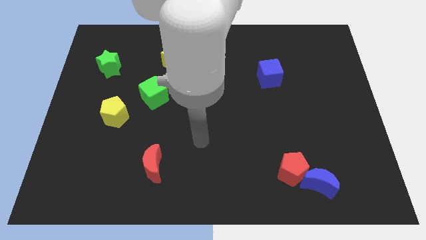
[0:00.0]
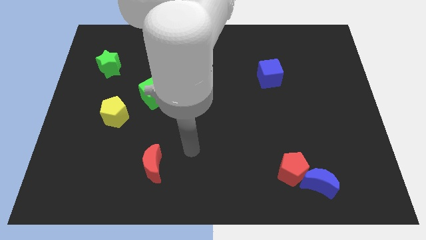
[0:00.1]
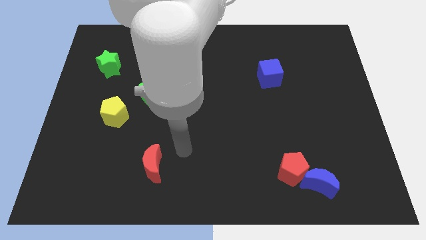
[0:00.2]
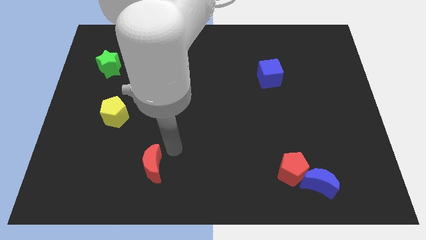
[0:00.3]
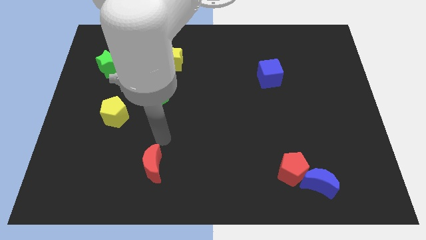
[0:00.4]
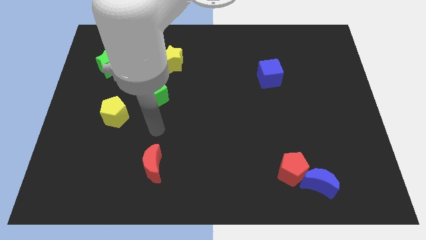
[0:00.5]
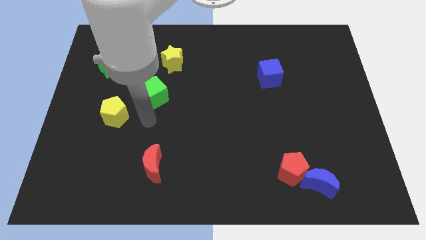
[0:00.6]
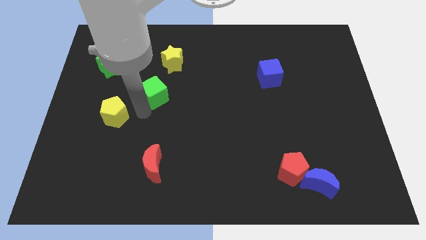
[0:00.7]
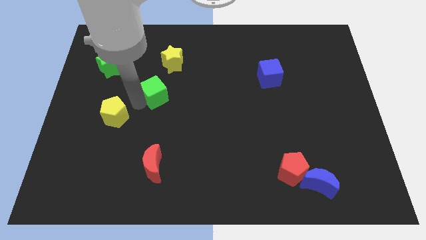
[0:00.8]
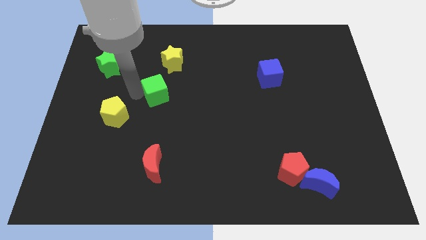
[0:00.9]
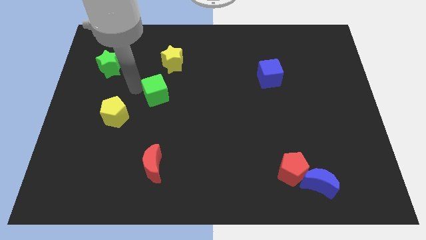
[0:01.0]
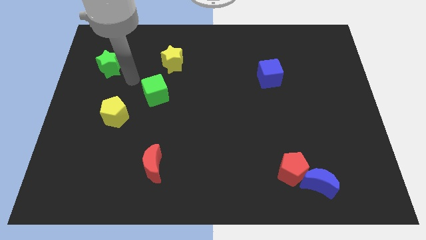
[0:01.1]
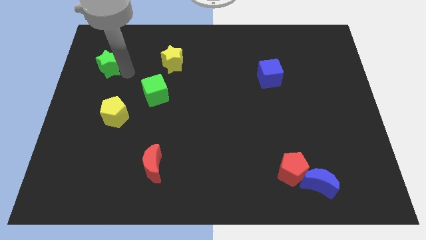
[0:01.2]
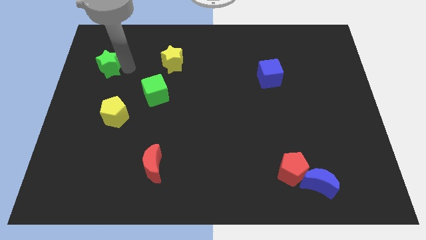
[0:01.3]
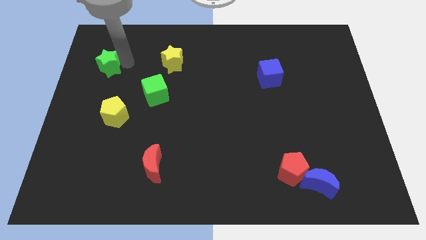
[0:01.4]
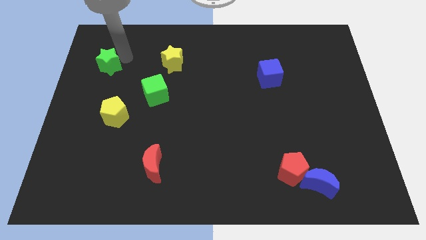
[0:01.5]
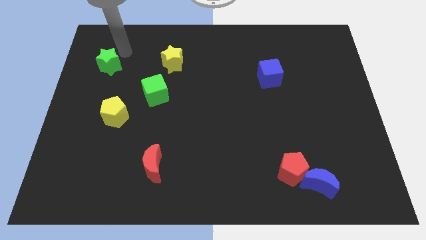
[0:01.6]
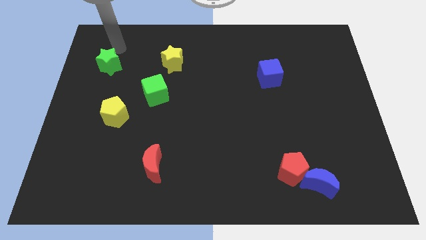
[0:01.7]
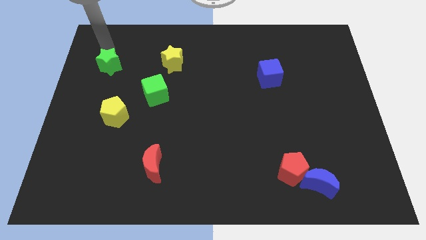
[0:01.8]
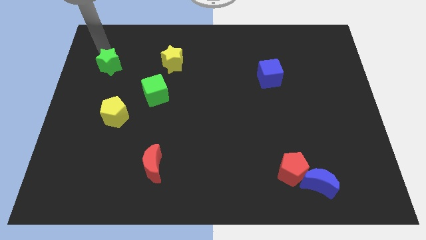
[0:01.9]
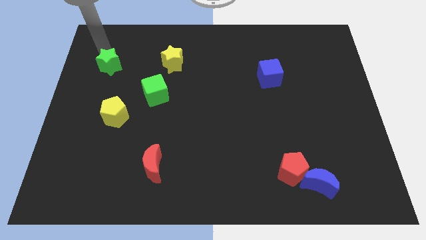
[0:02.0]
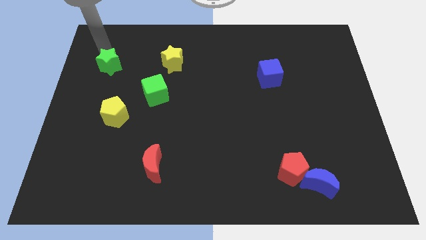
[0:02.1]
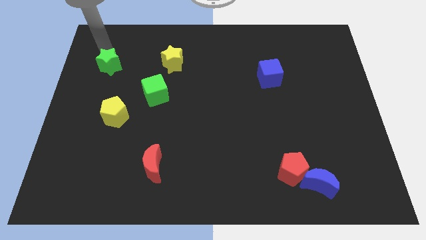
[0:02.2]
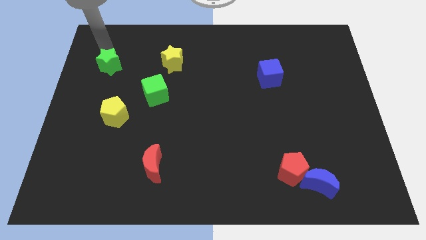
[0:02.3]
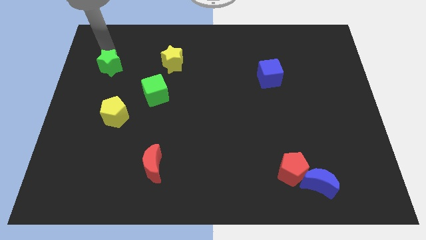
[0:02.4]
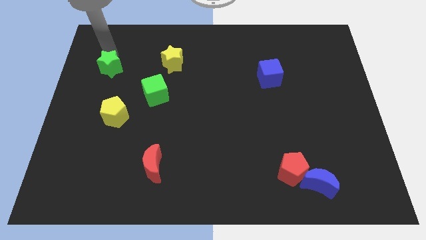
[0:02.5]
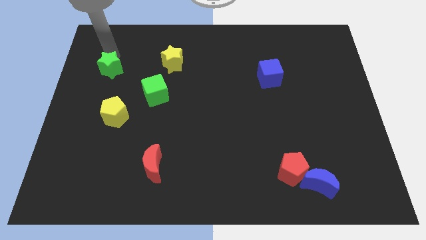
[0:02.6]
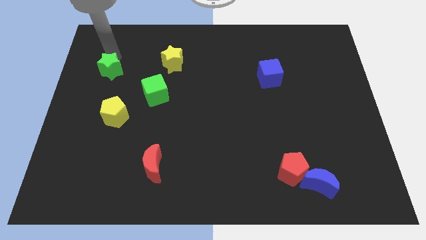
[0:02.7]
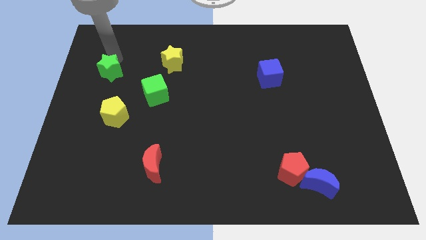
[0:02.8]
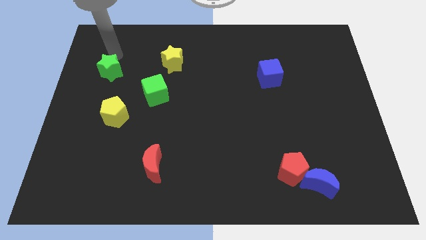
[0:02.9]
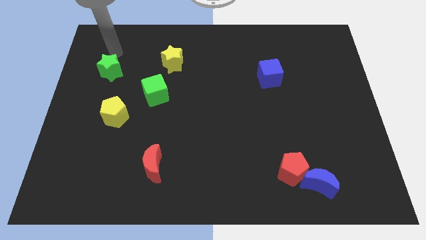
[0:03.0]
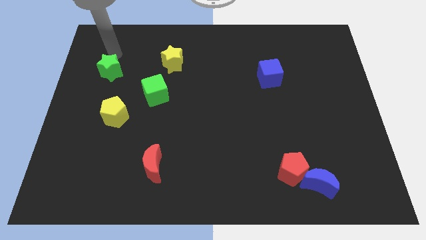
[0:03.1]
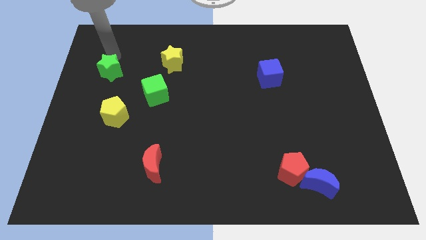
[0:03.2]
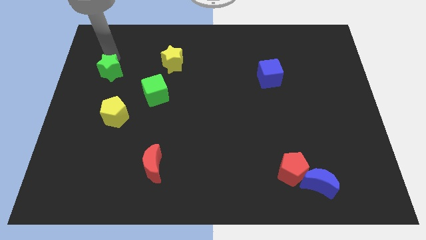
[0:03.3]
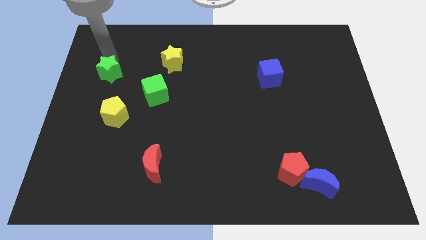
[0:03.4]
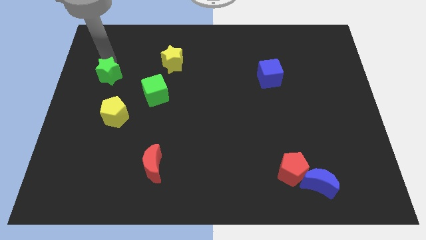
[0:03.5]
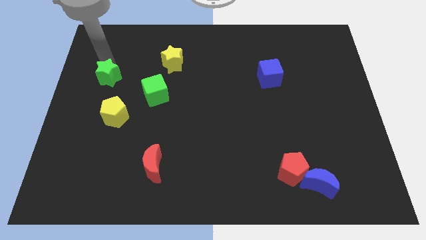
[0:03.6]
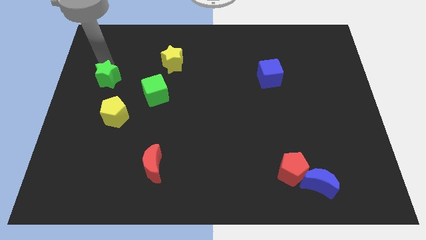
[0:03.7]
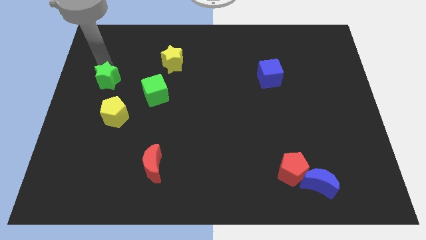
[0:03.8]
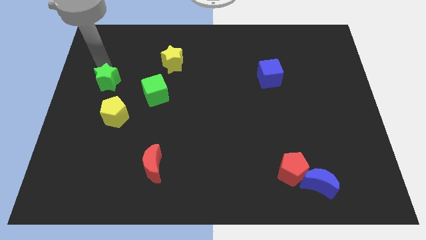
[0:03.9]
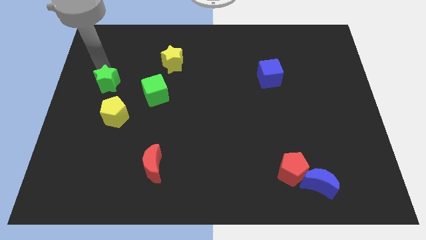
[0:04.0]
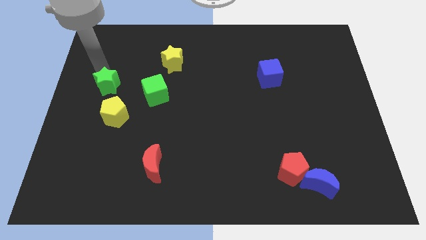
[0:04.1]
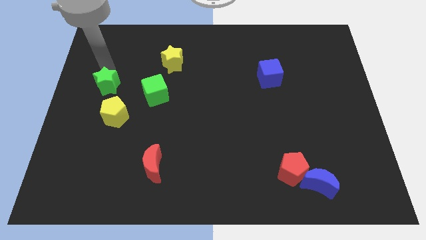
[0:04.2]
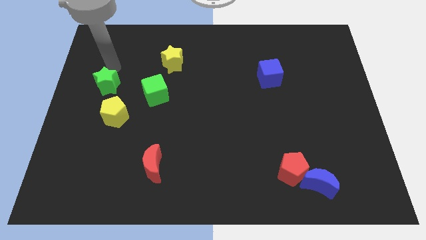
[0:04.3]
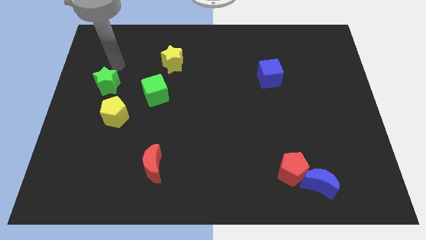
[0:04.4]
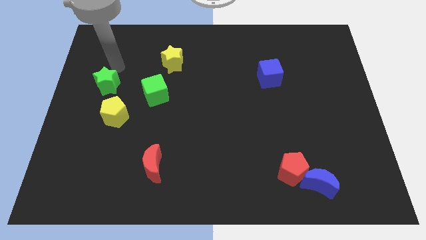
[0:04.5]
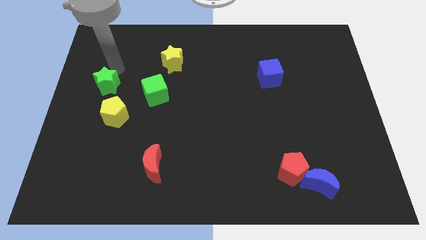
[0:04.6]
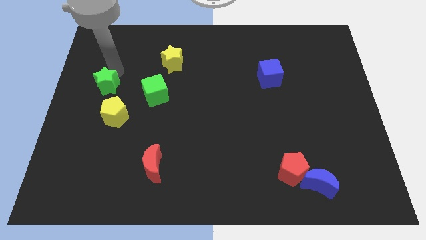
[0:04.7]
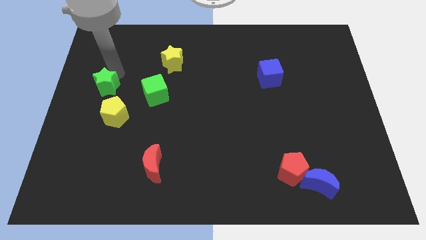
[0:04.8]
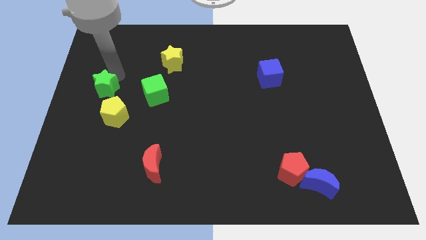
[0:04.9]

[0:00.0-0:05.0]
push the green star a bit down

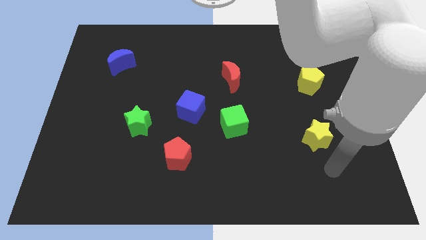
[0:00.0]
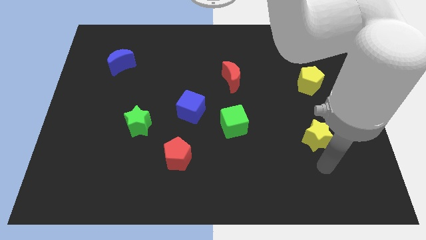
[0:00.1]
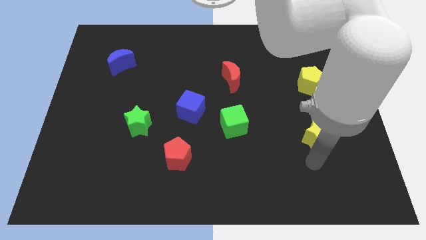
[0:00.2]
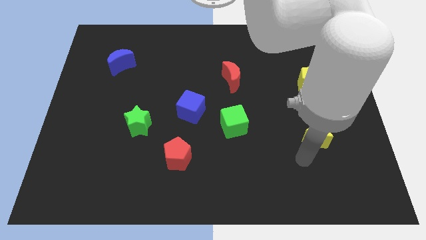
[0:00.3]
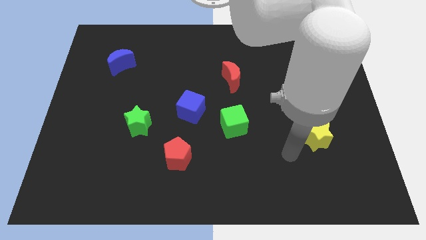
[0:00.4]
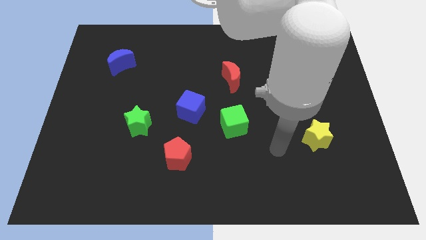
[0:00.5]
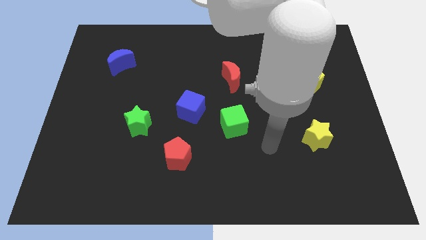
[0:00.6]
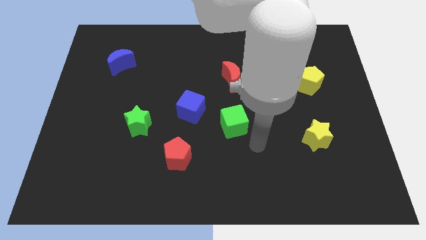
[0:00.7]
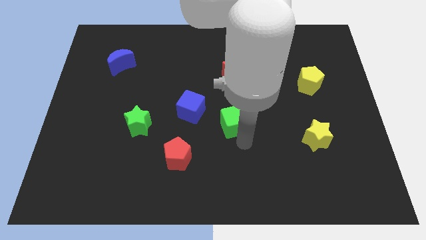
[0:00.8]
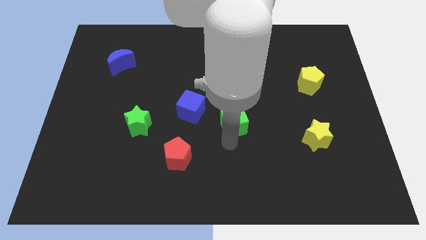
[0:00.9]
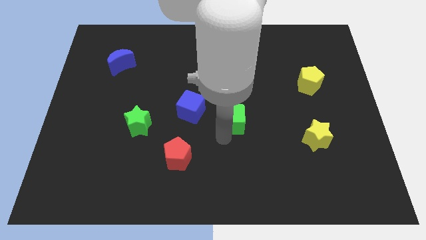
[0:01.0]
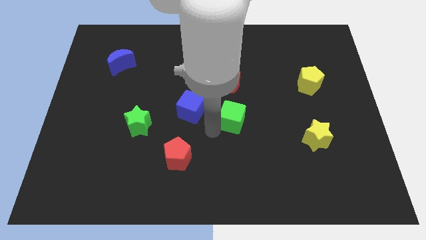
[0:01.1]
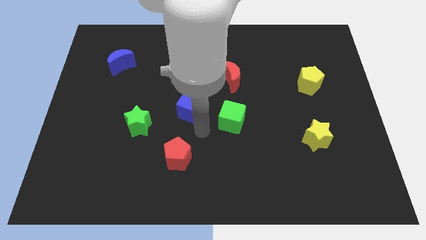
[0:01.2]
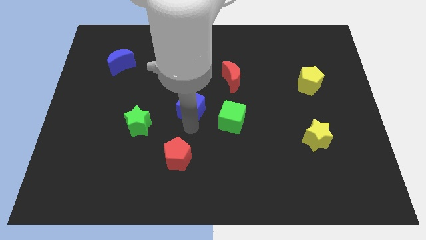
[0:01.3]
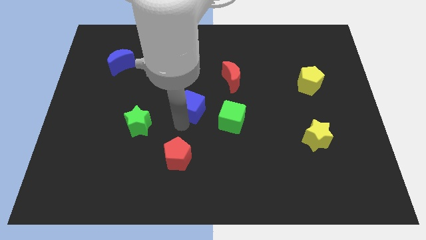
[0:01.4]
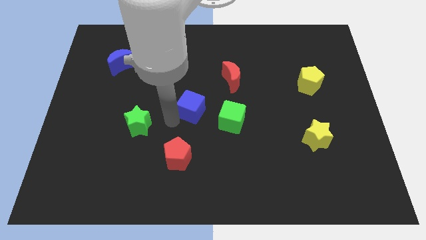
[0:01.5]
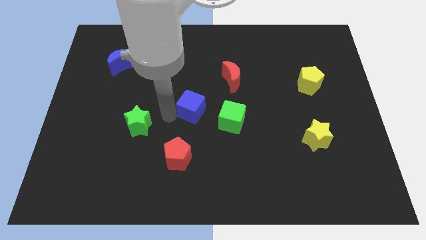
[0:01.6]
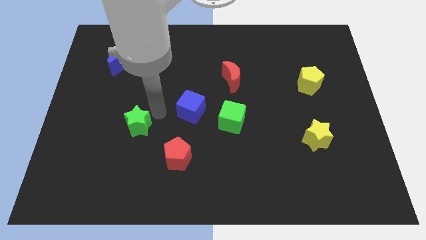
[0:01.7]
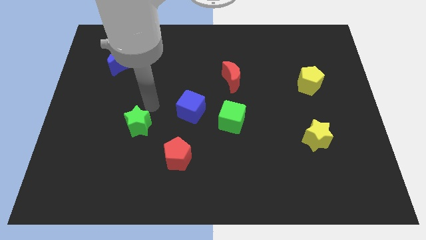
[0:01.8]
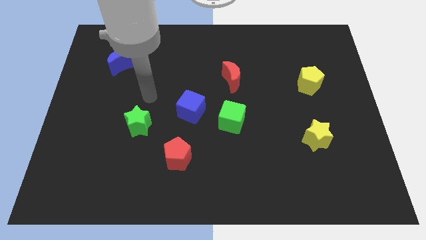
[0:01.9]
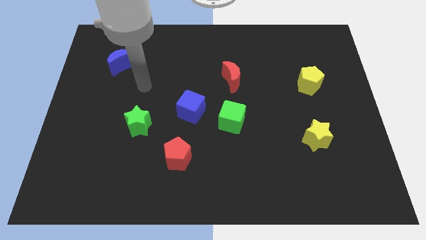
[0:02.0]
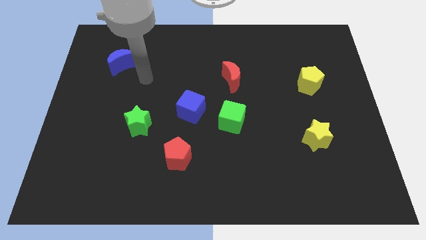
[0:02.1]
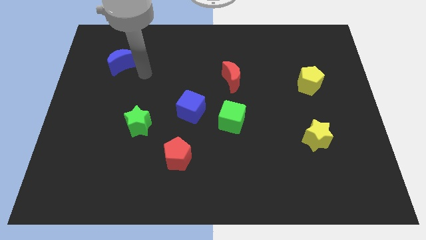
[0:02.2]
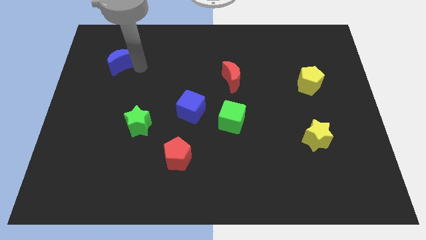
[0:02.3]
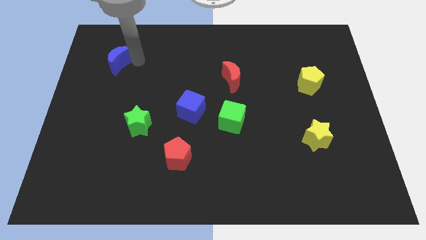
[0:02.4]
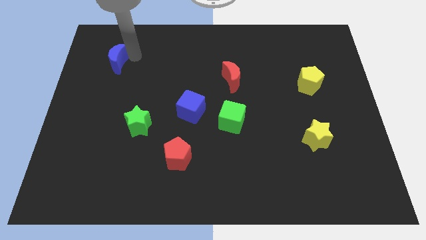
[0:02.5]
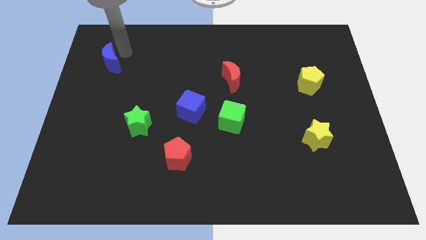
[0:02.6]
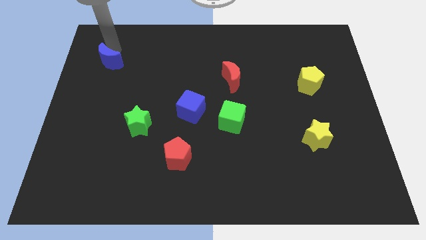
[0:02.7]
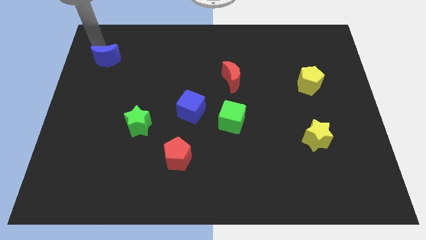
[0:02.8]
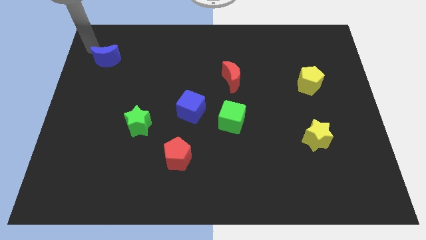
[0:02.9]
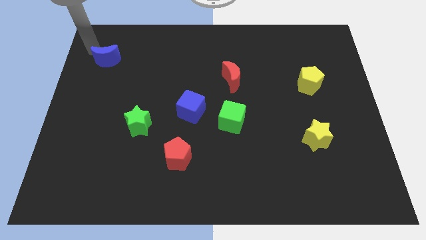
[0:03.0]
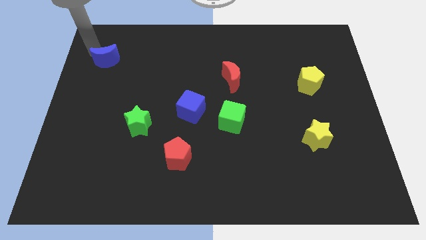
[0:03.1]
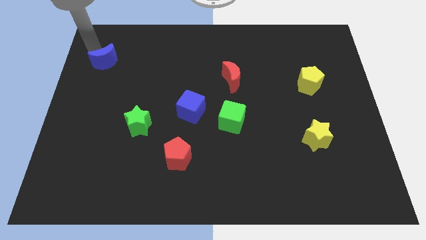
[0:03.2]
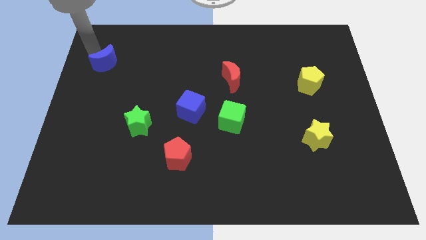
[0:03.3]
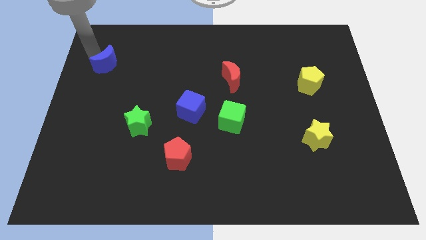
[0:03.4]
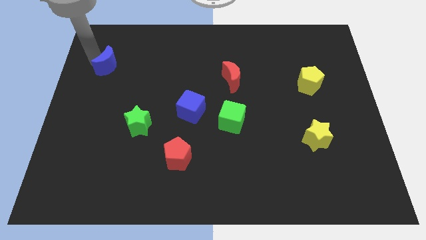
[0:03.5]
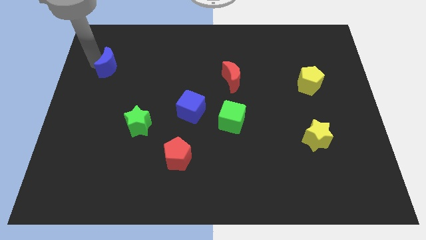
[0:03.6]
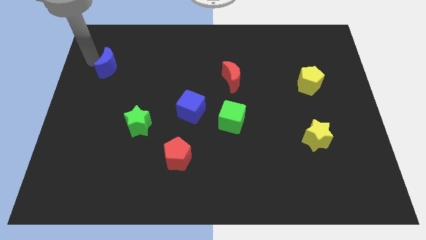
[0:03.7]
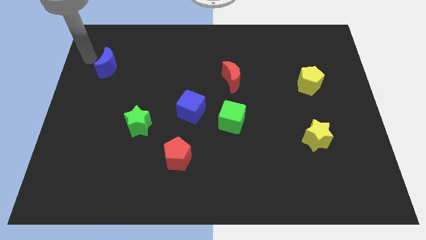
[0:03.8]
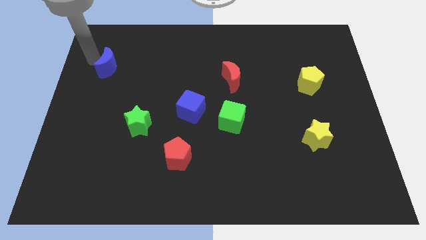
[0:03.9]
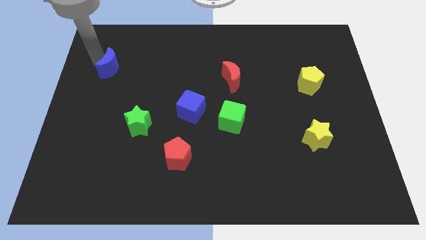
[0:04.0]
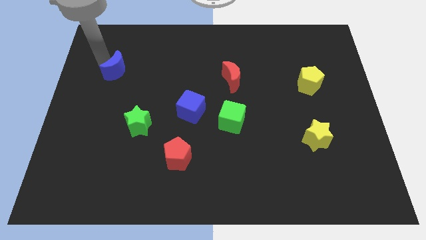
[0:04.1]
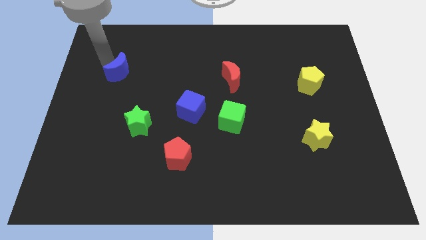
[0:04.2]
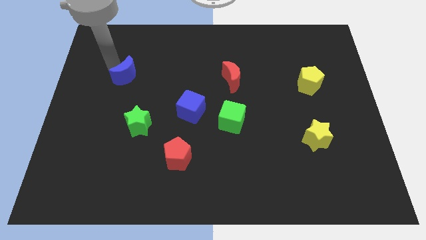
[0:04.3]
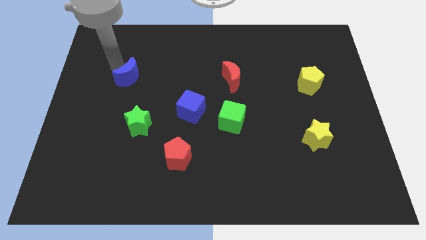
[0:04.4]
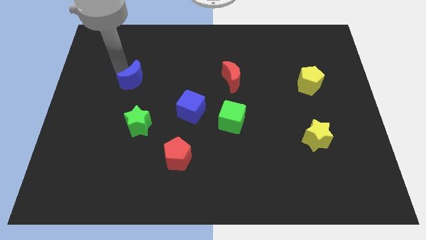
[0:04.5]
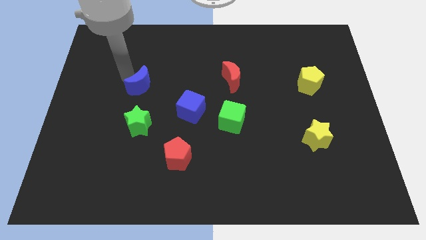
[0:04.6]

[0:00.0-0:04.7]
slide the blue moon a little downwards and then right
